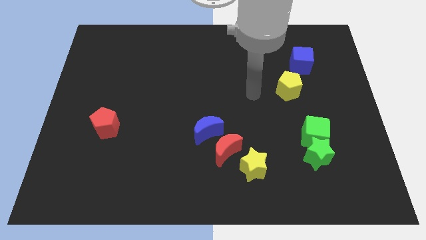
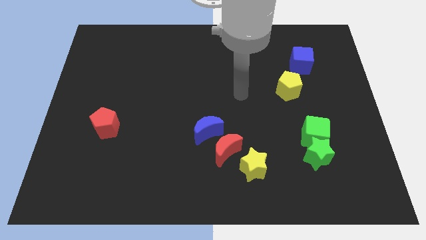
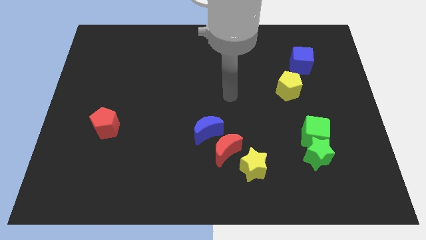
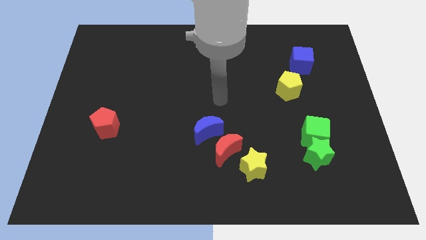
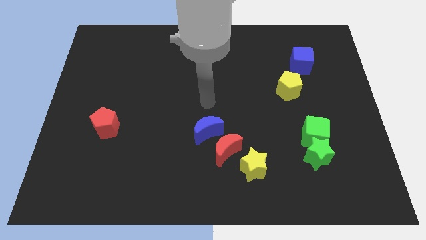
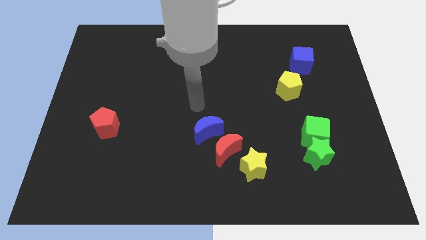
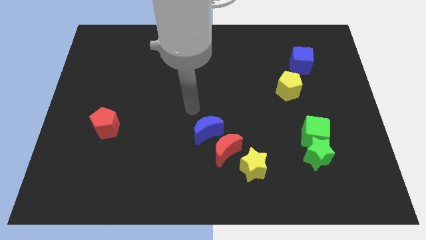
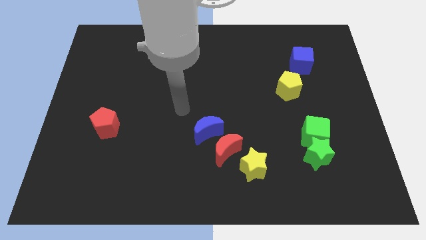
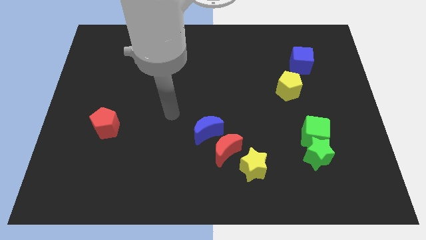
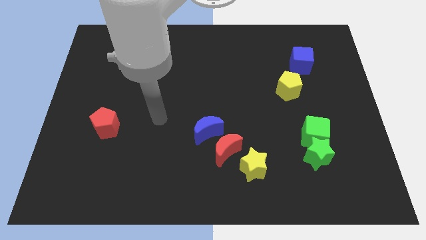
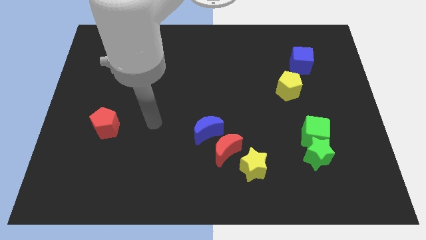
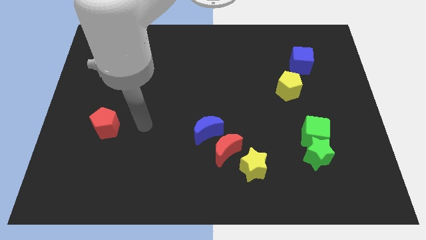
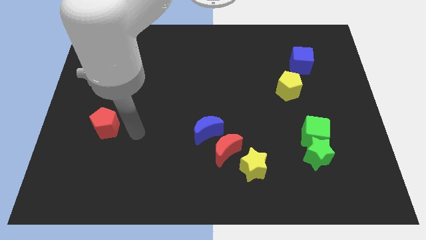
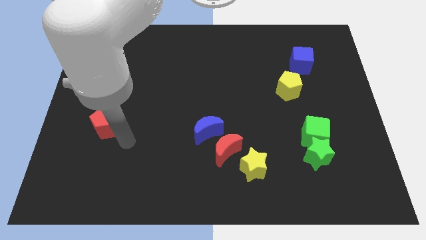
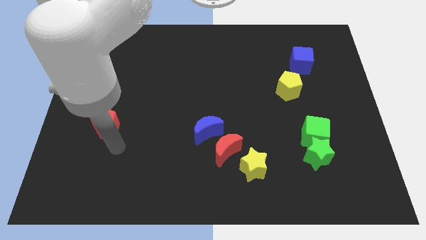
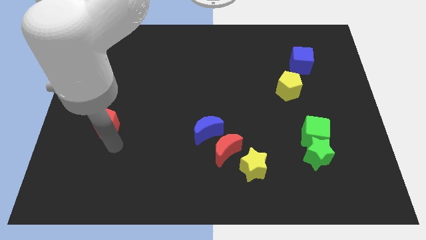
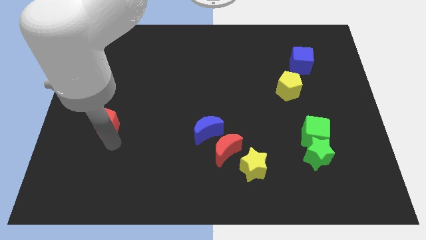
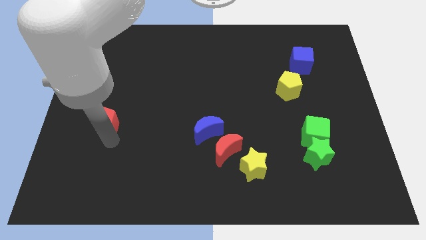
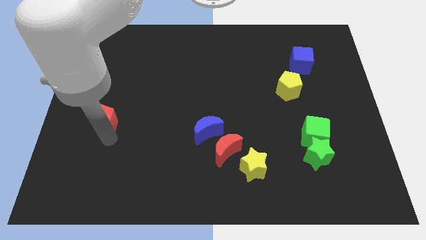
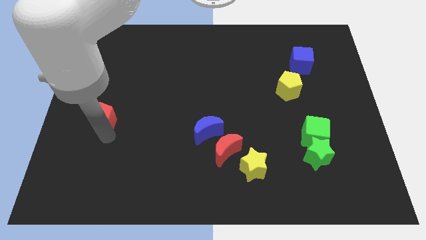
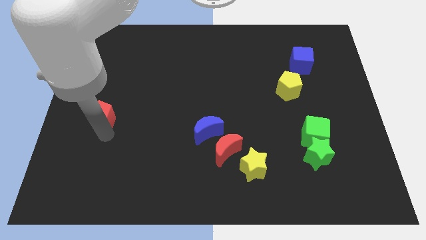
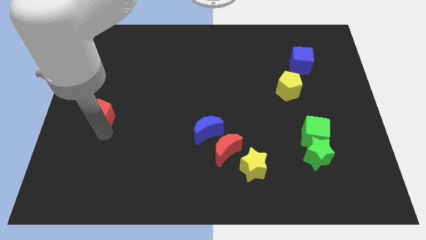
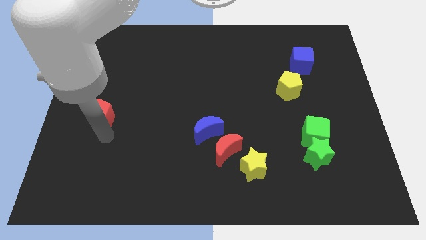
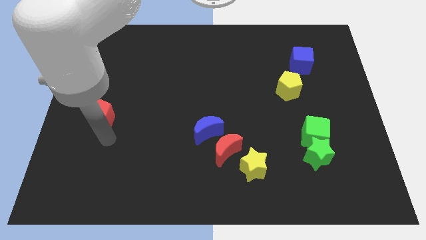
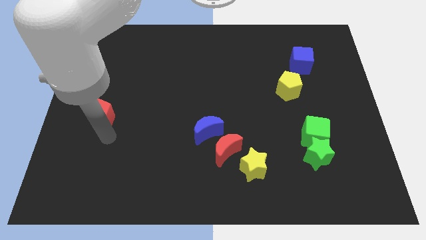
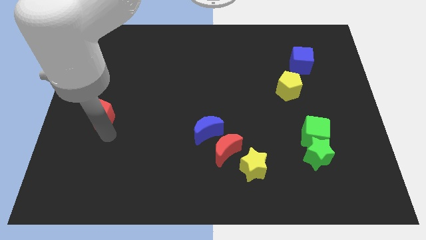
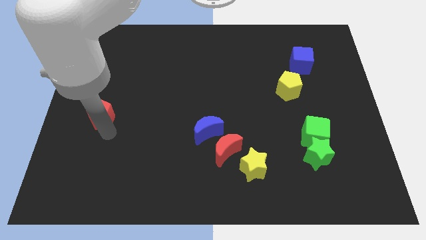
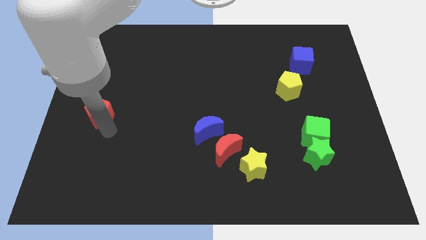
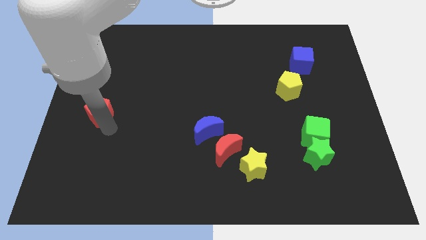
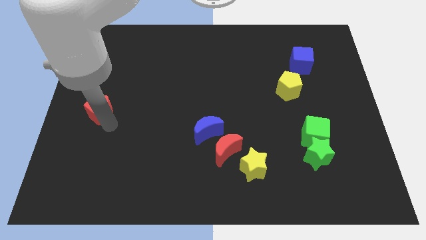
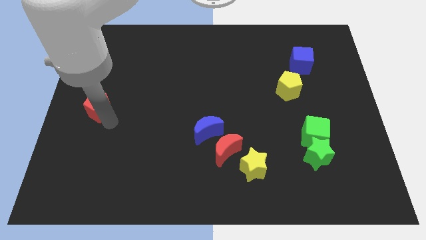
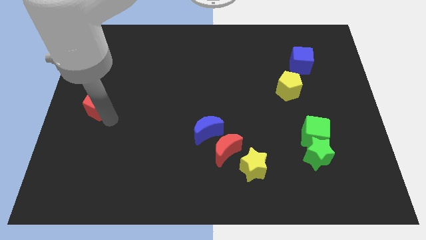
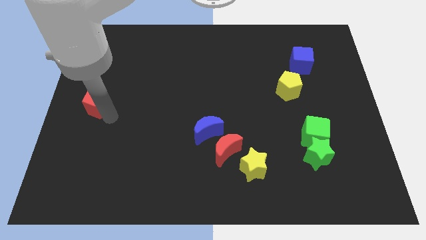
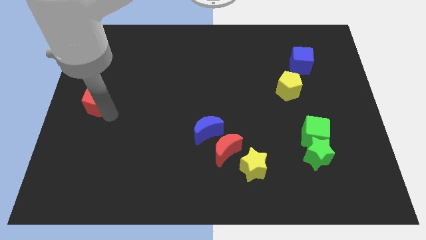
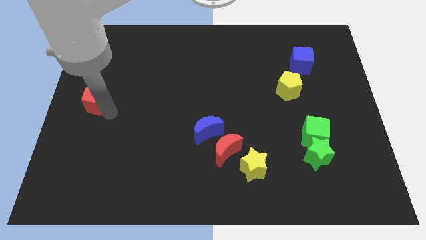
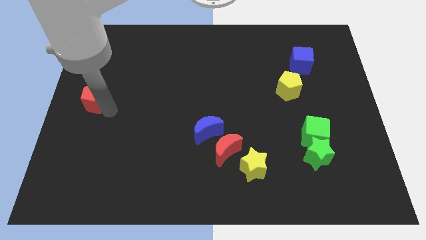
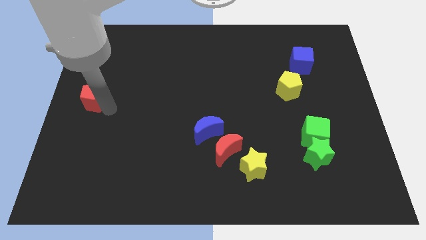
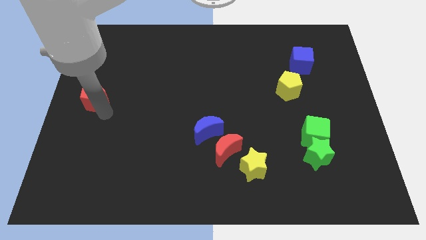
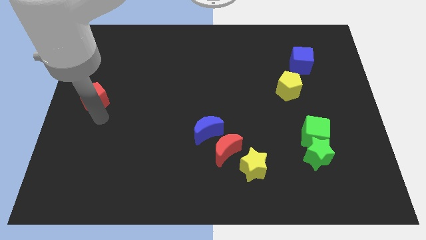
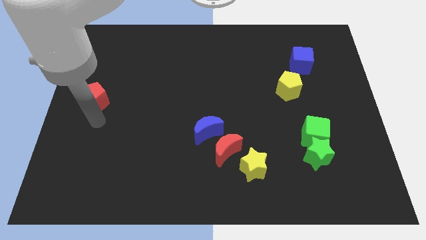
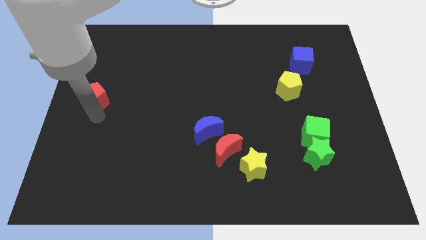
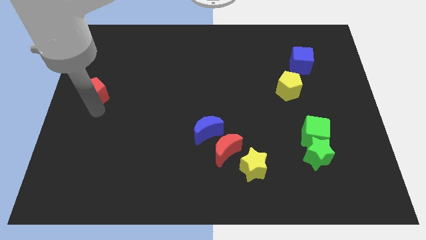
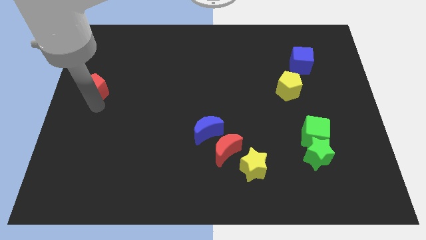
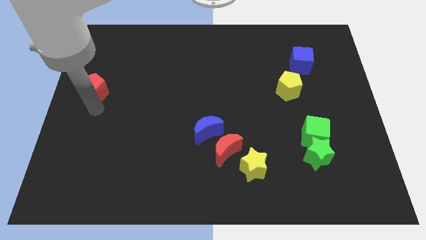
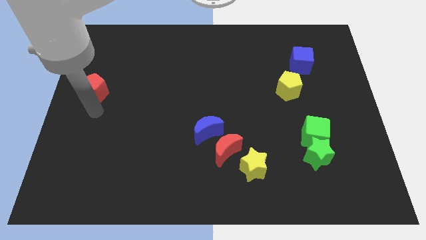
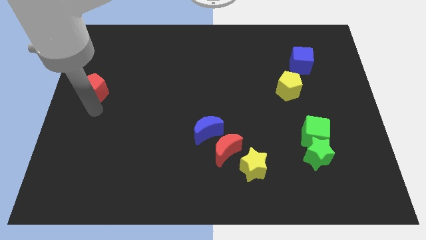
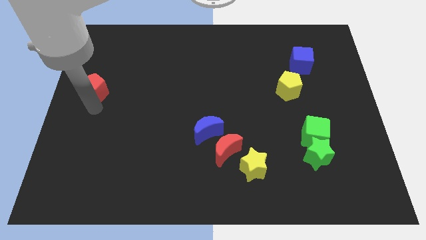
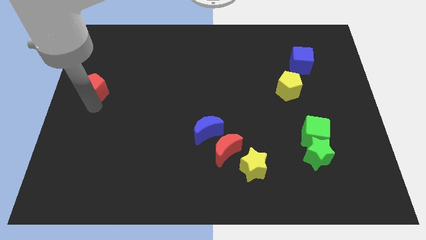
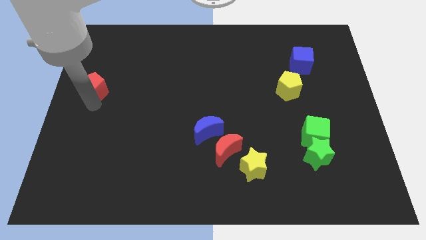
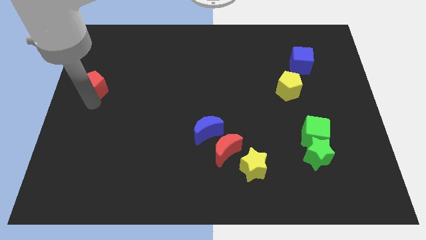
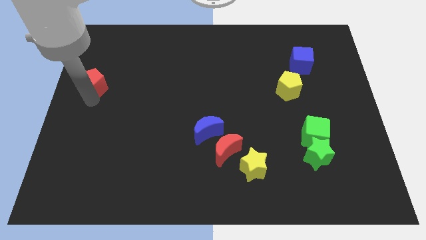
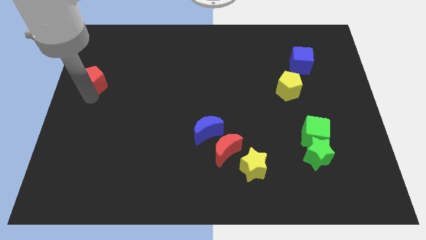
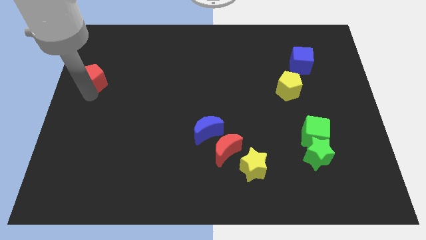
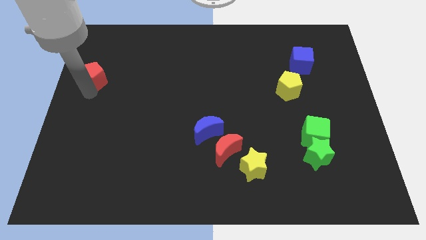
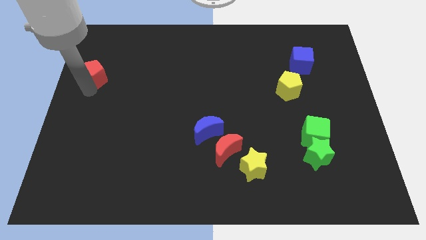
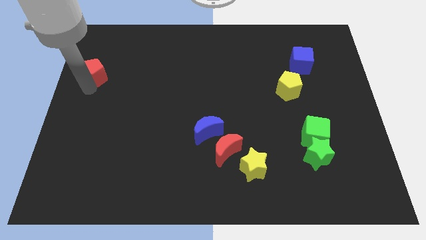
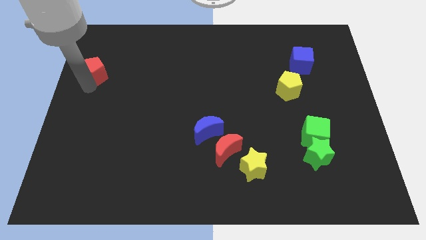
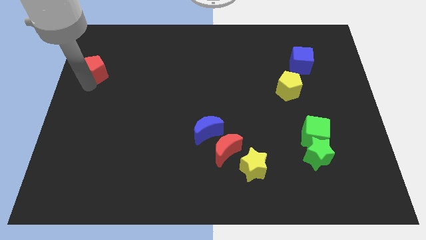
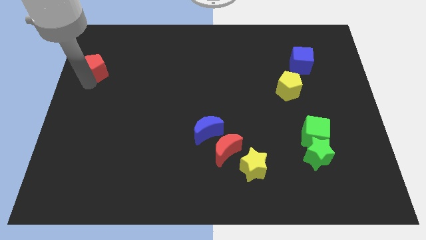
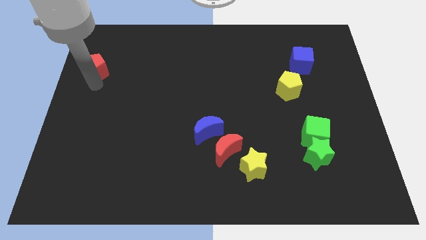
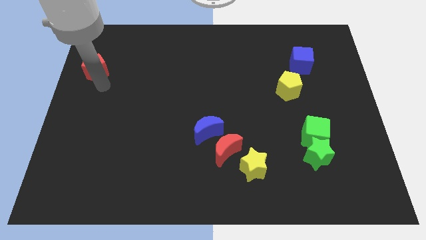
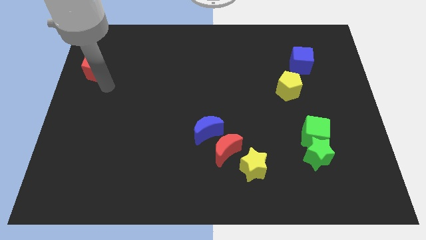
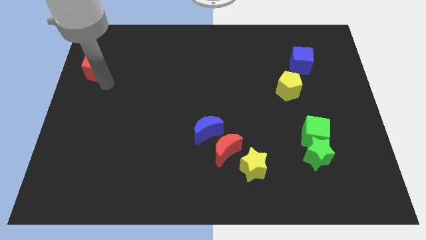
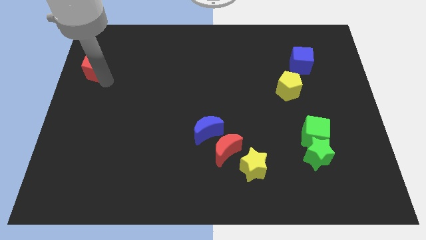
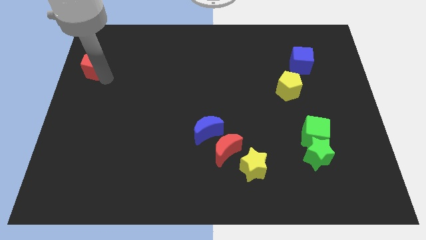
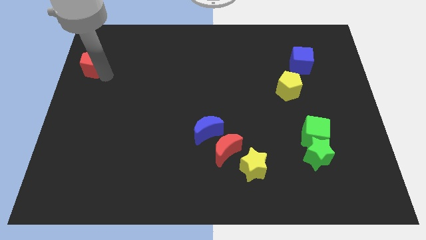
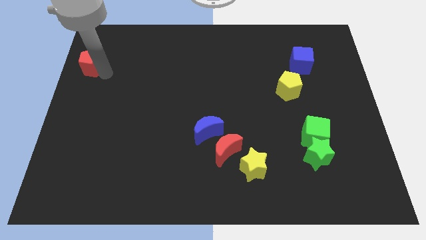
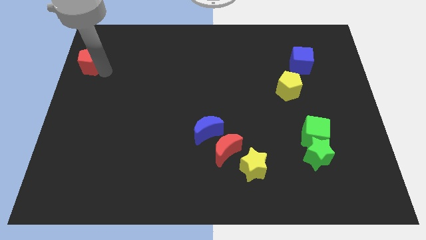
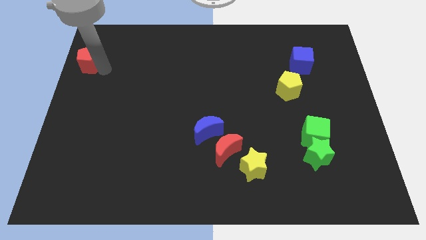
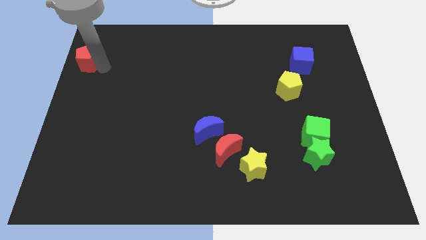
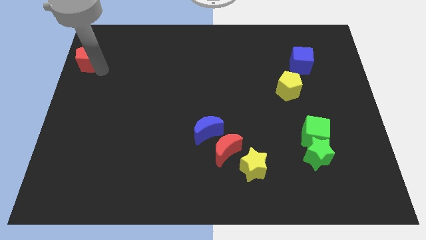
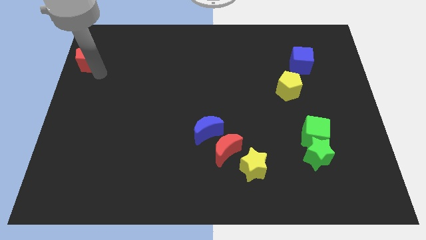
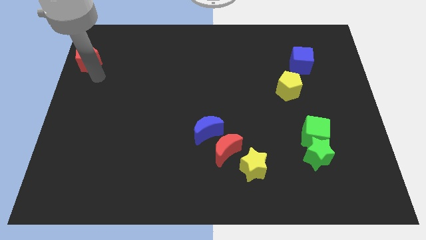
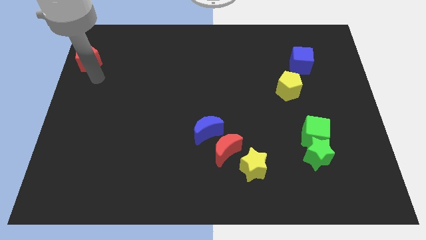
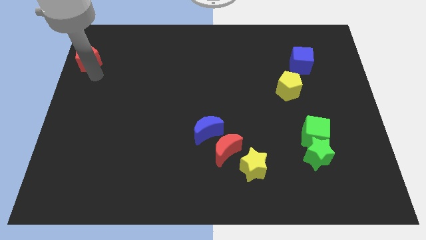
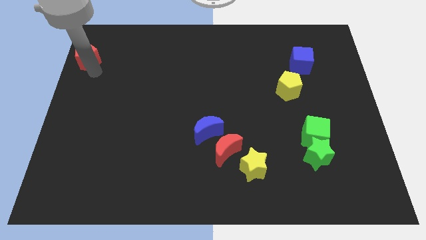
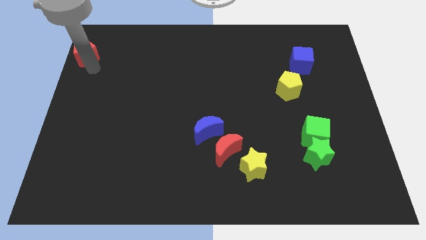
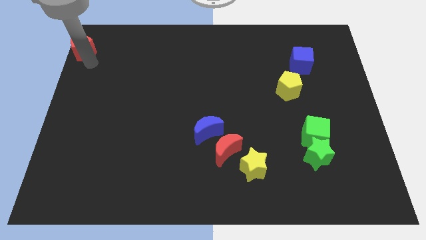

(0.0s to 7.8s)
move the red pentagon to the top left
